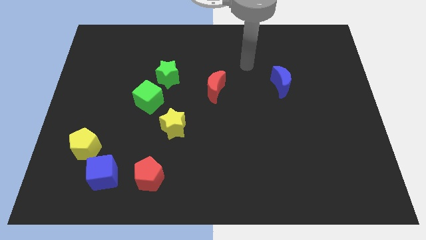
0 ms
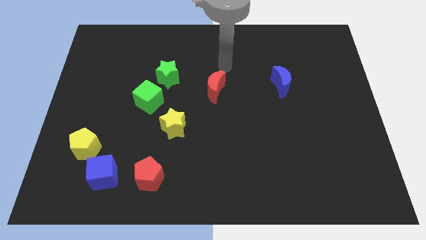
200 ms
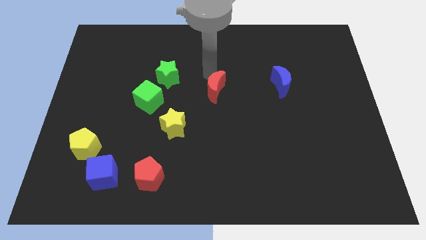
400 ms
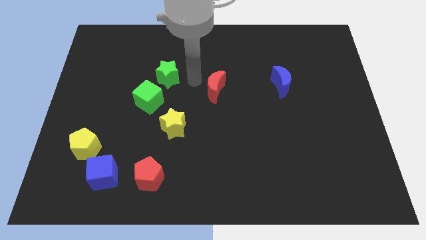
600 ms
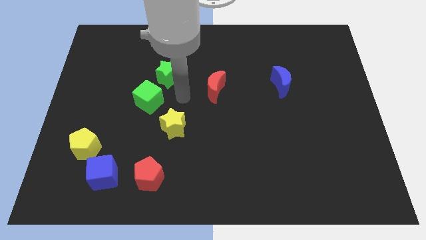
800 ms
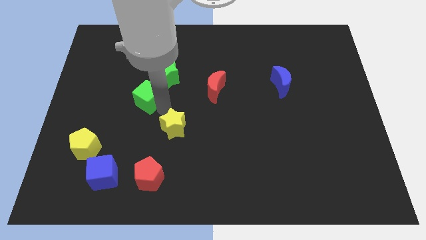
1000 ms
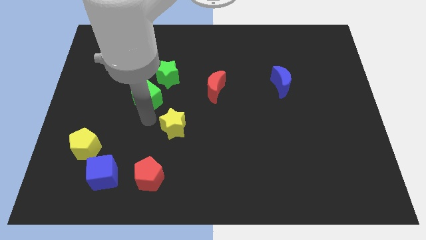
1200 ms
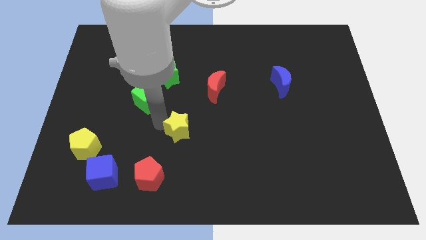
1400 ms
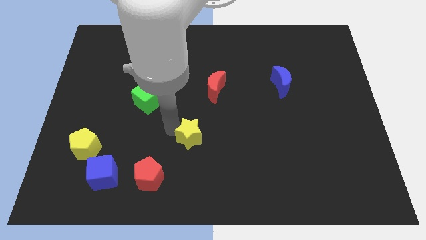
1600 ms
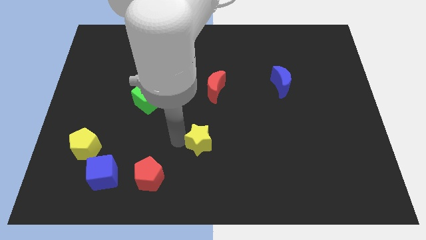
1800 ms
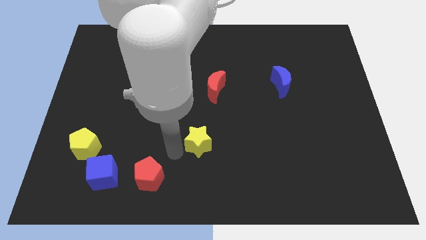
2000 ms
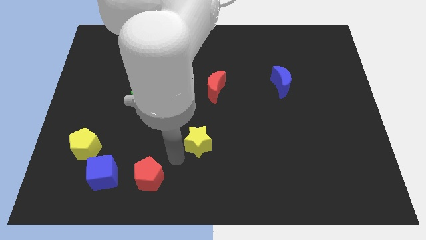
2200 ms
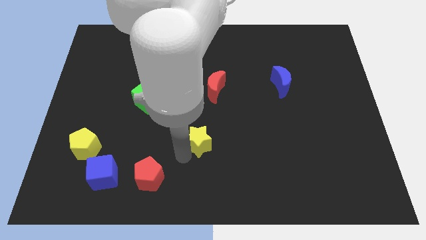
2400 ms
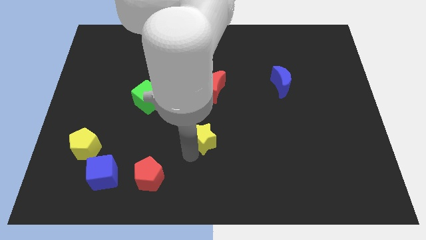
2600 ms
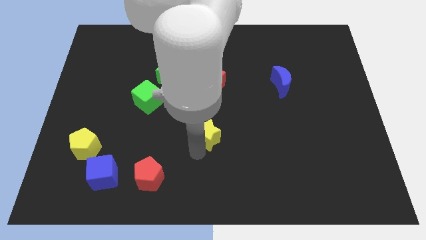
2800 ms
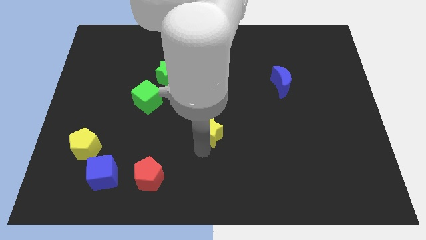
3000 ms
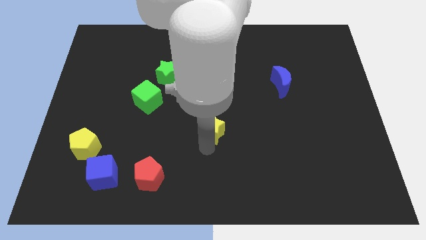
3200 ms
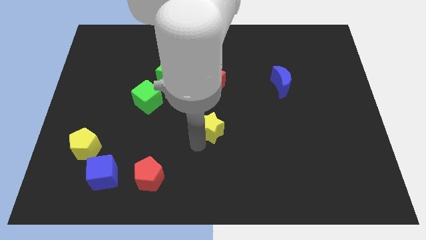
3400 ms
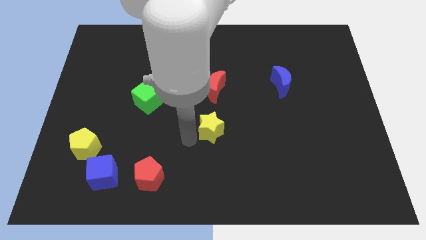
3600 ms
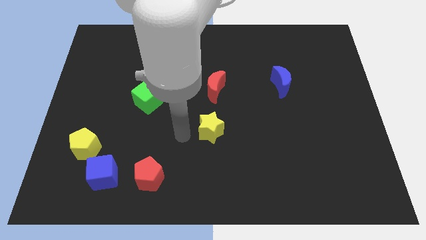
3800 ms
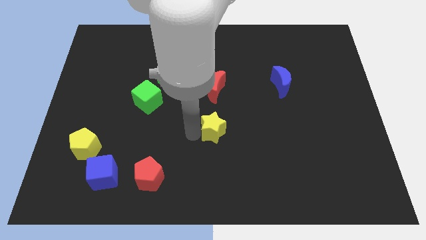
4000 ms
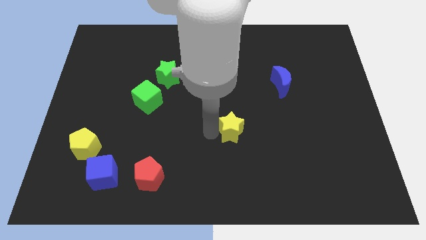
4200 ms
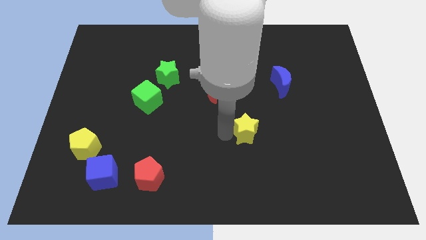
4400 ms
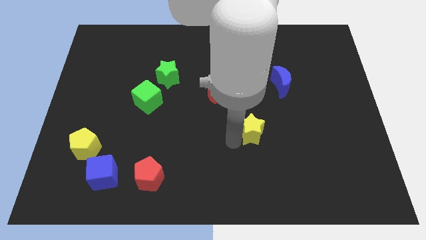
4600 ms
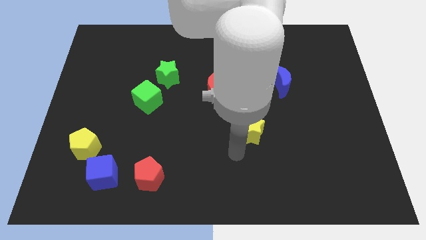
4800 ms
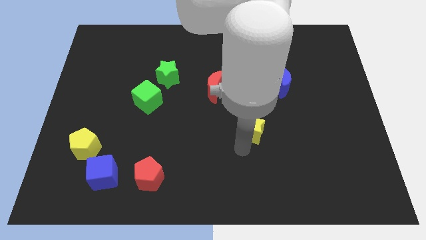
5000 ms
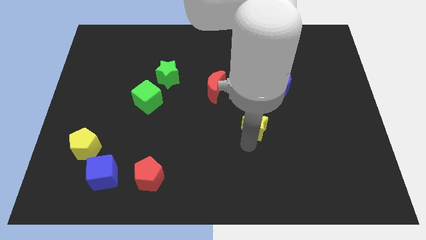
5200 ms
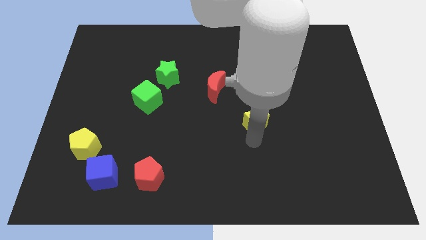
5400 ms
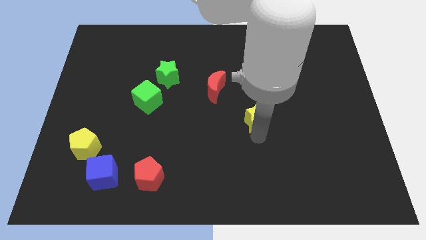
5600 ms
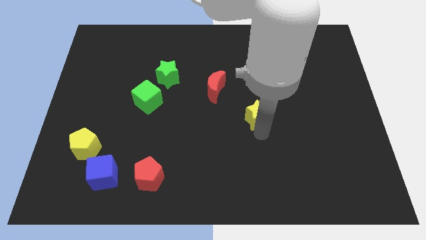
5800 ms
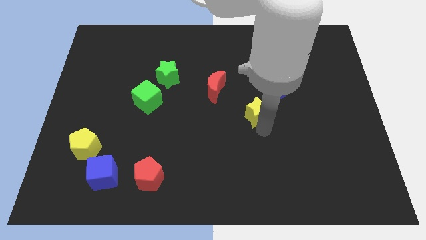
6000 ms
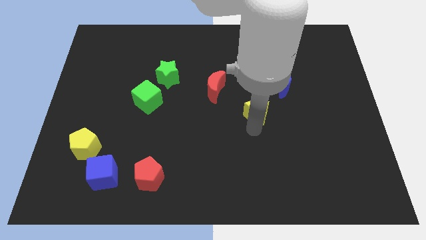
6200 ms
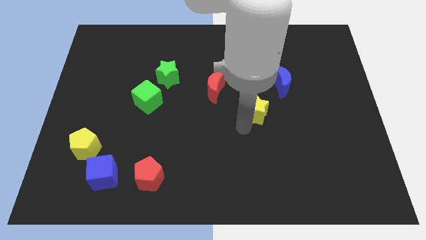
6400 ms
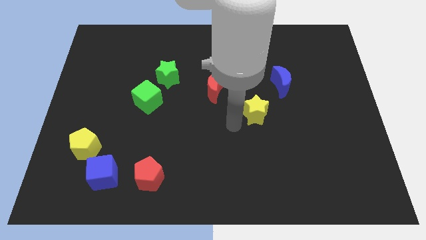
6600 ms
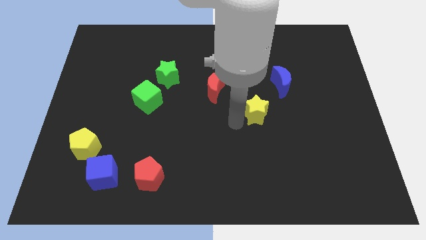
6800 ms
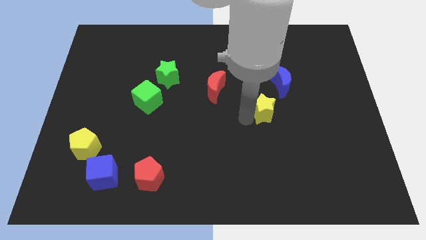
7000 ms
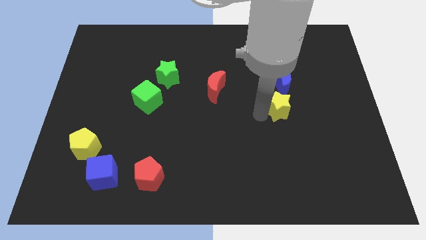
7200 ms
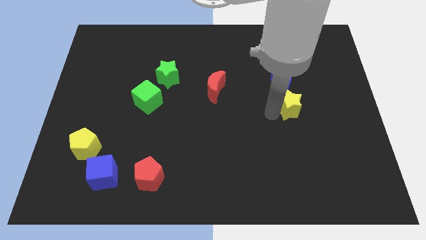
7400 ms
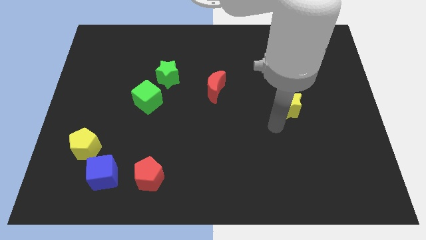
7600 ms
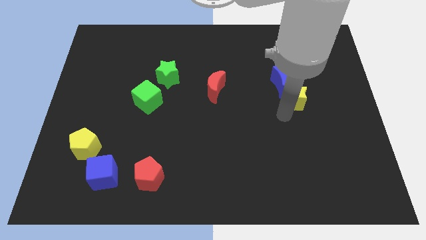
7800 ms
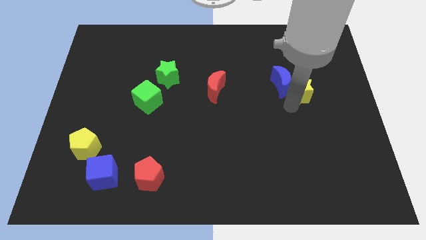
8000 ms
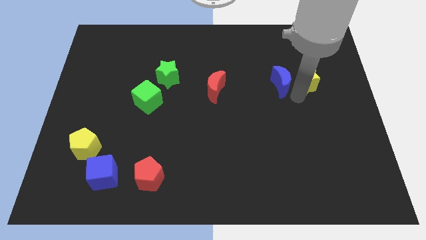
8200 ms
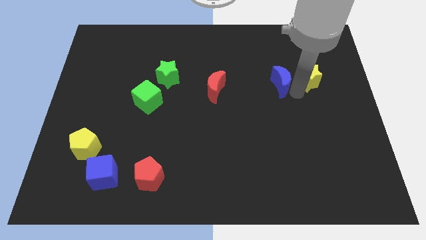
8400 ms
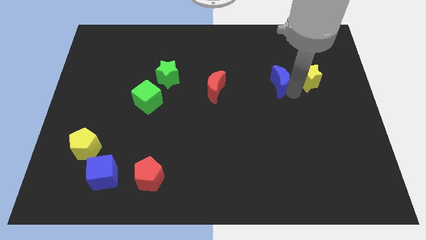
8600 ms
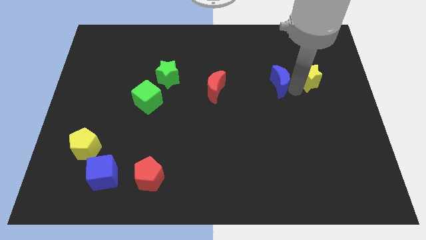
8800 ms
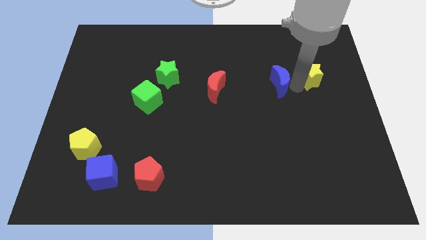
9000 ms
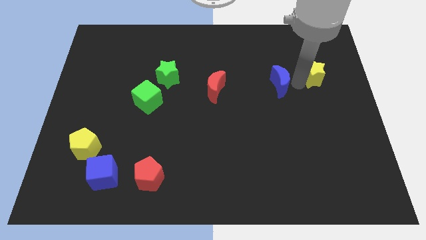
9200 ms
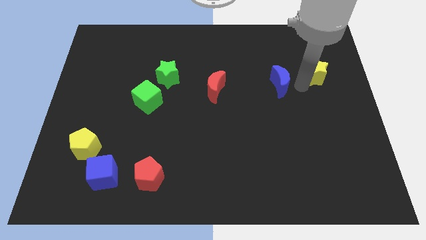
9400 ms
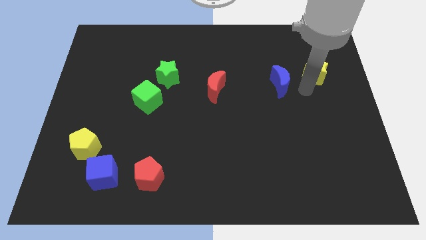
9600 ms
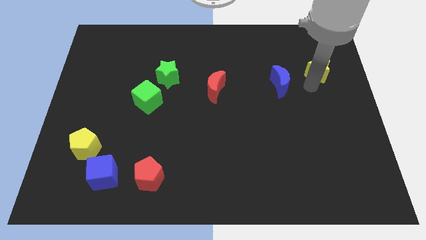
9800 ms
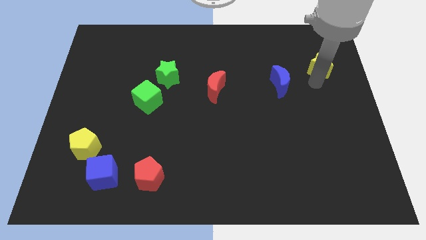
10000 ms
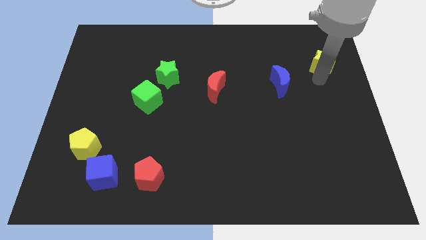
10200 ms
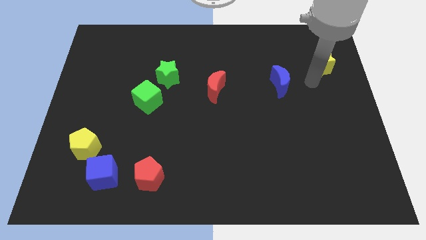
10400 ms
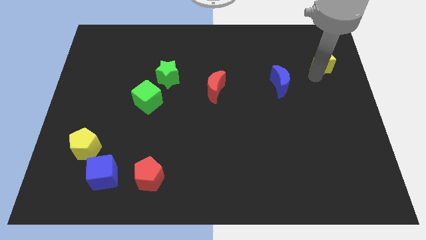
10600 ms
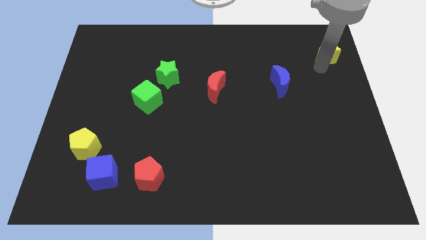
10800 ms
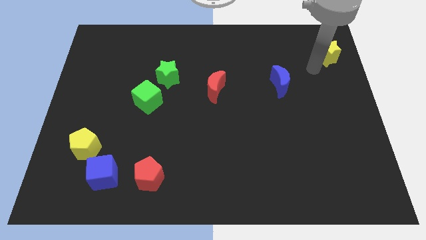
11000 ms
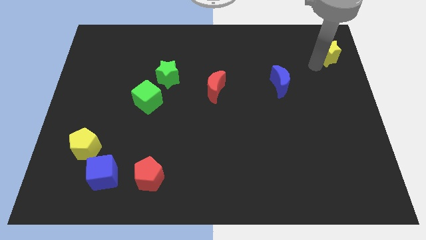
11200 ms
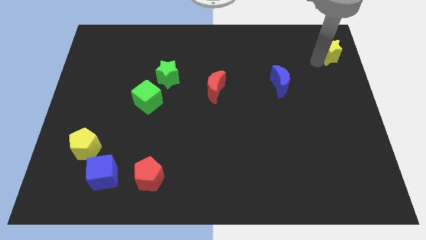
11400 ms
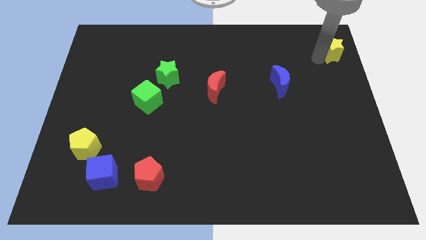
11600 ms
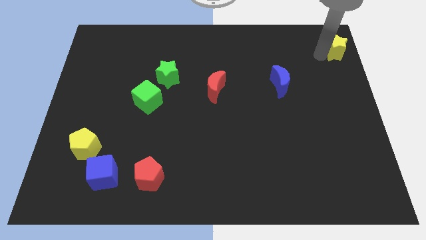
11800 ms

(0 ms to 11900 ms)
move the yellow star to the top right corner
